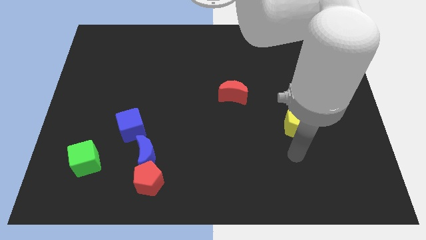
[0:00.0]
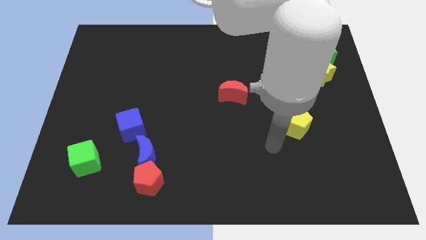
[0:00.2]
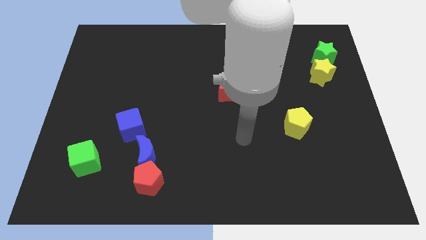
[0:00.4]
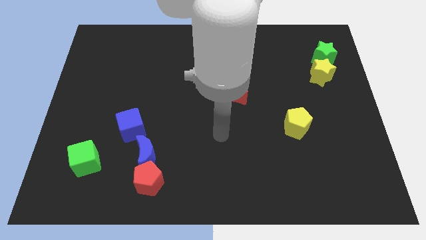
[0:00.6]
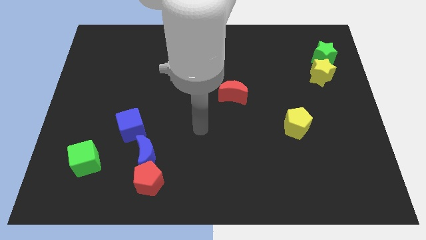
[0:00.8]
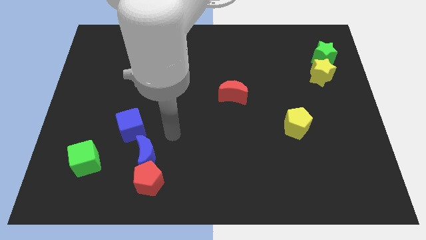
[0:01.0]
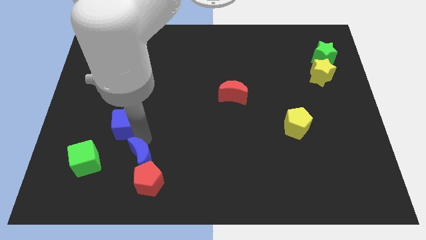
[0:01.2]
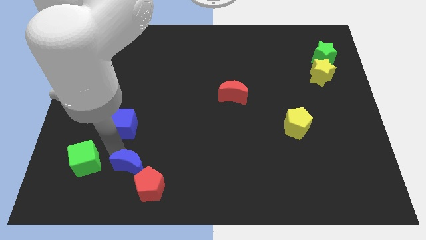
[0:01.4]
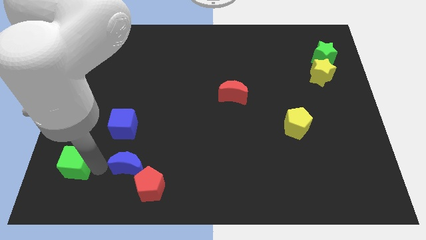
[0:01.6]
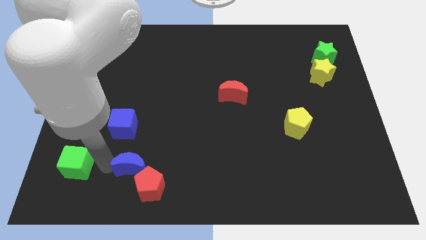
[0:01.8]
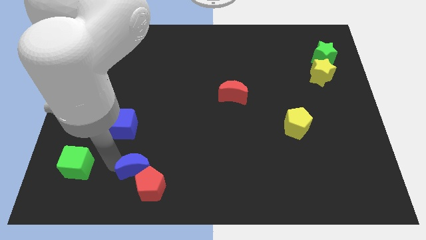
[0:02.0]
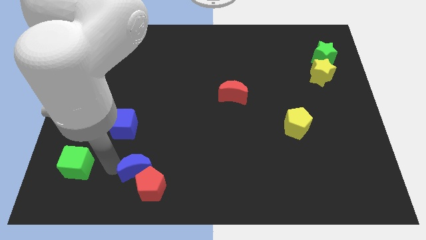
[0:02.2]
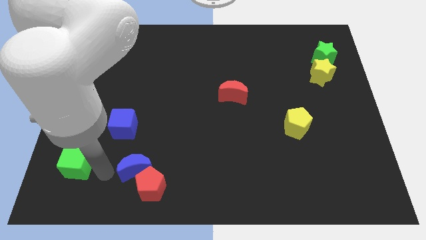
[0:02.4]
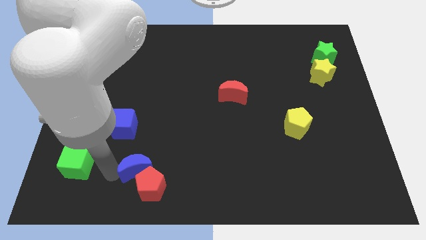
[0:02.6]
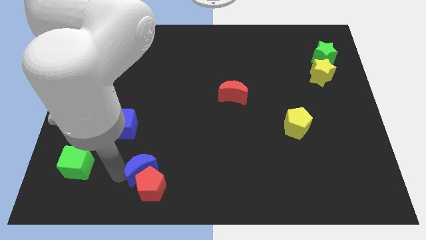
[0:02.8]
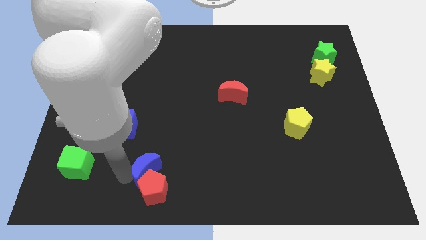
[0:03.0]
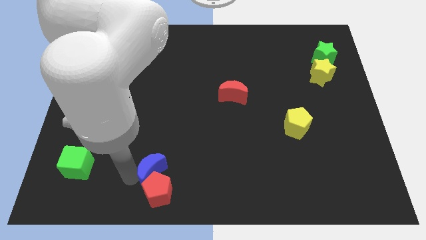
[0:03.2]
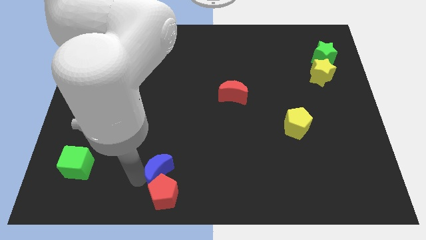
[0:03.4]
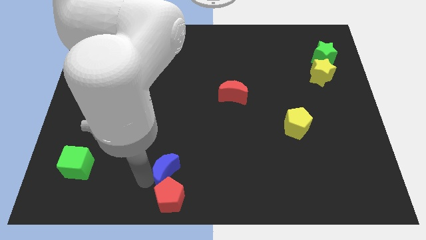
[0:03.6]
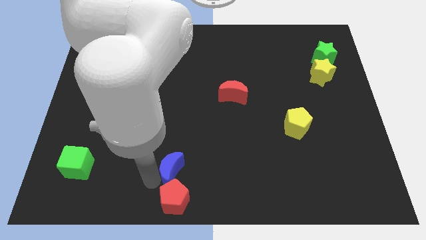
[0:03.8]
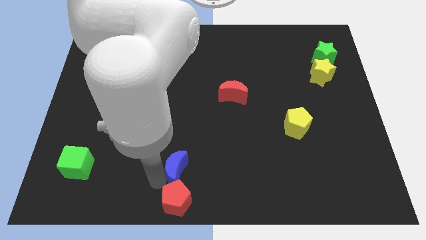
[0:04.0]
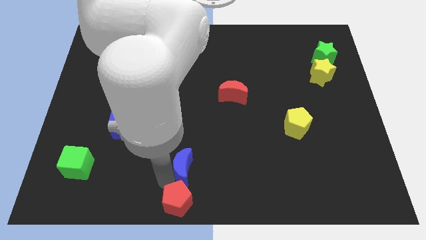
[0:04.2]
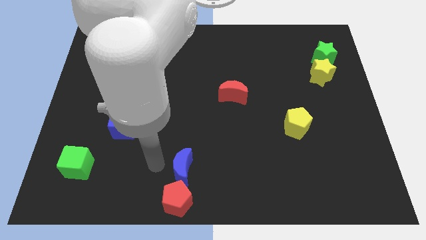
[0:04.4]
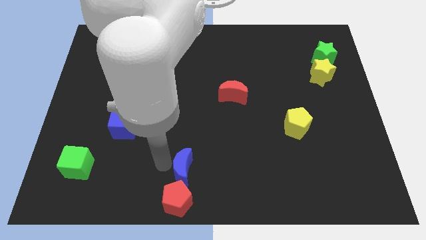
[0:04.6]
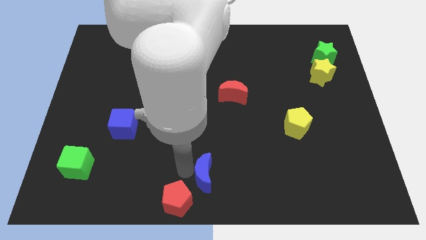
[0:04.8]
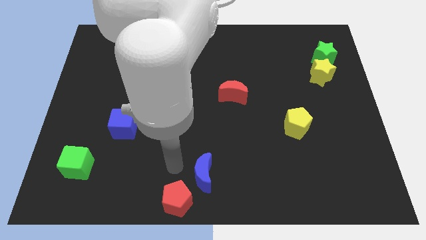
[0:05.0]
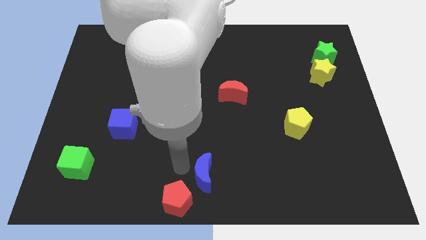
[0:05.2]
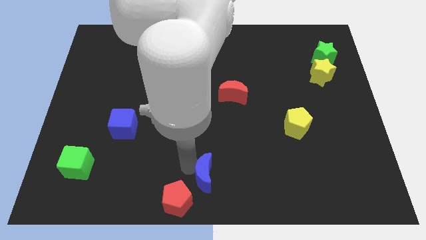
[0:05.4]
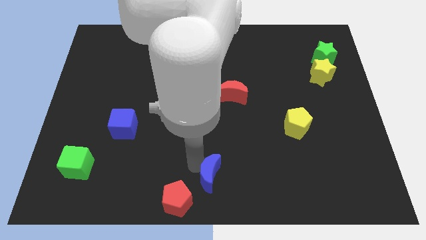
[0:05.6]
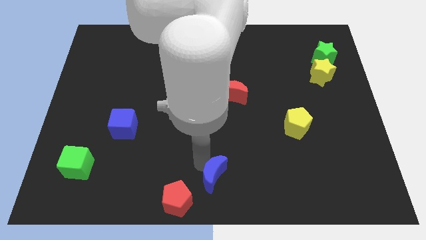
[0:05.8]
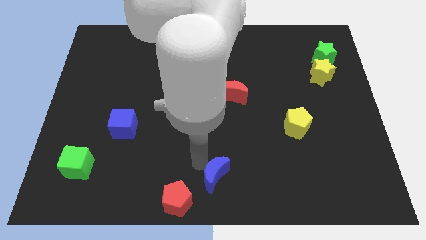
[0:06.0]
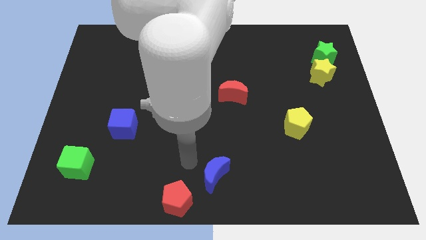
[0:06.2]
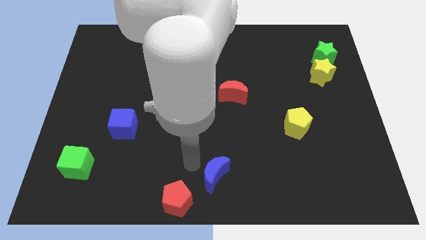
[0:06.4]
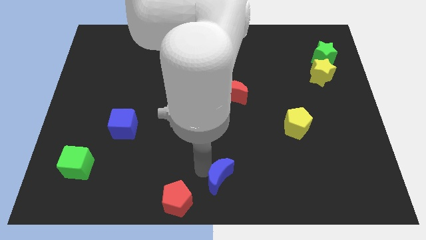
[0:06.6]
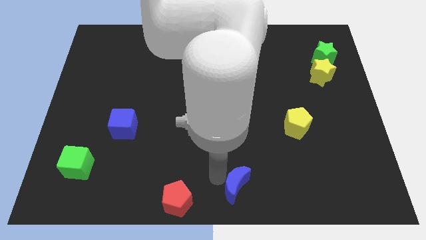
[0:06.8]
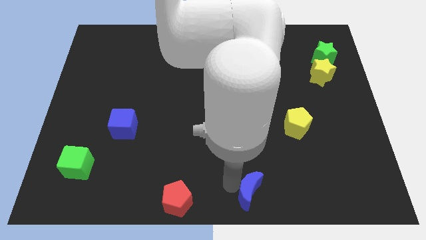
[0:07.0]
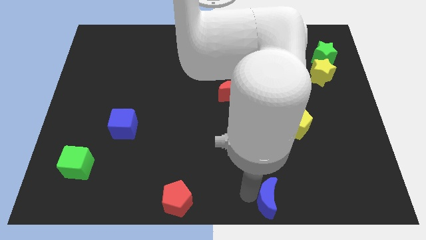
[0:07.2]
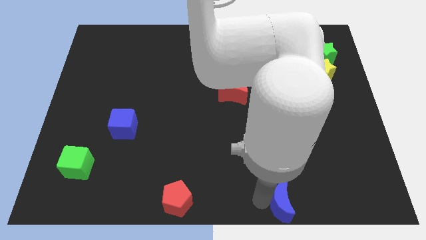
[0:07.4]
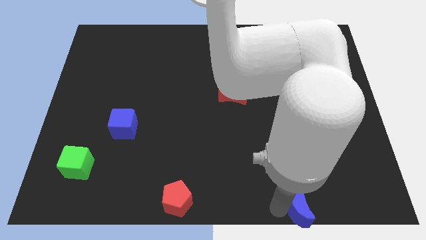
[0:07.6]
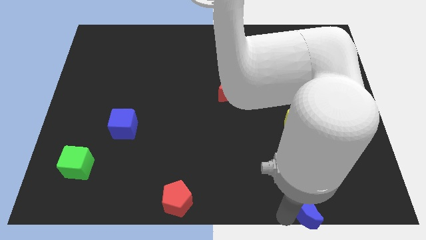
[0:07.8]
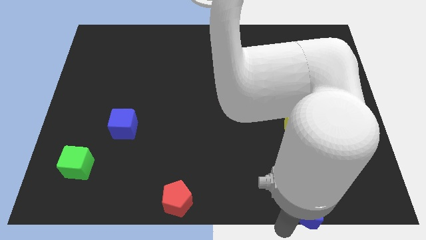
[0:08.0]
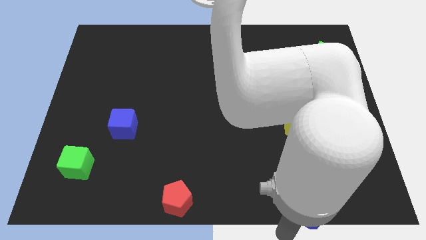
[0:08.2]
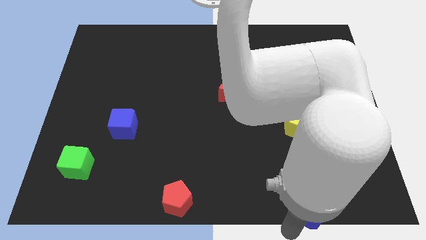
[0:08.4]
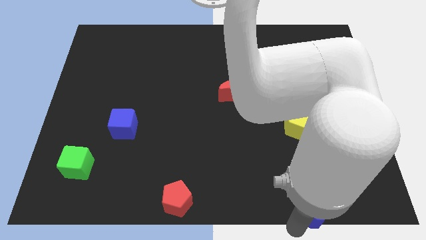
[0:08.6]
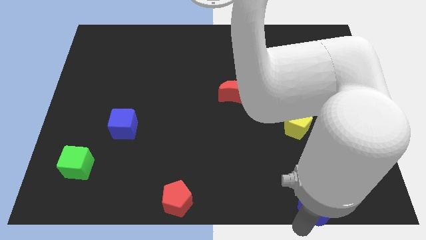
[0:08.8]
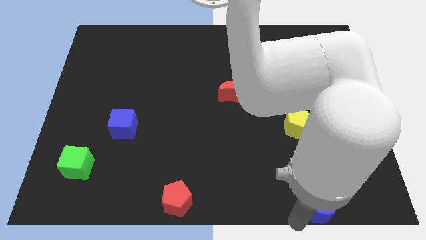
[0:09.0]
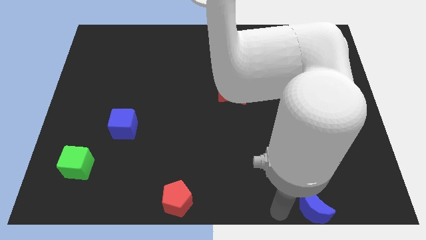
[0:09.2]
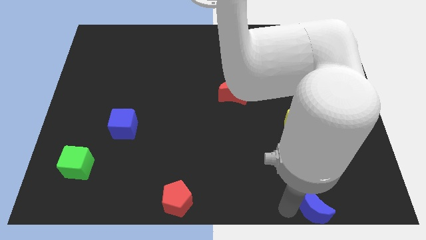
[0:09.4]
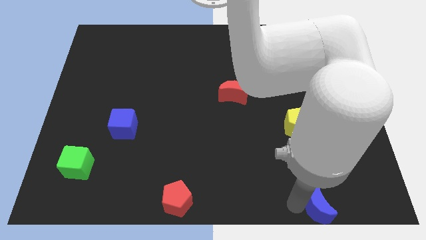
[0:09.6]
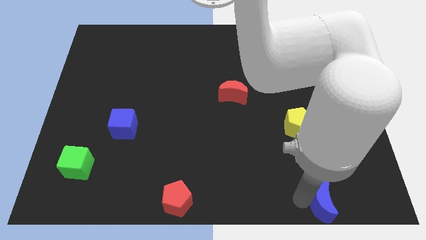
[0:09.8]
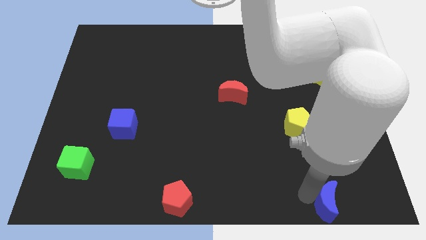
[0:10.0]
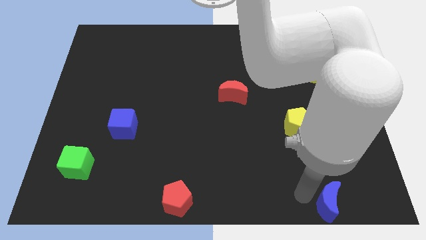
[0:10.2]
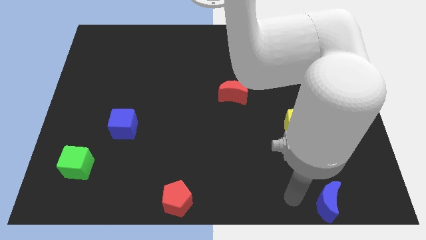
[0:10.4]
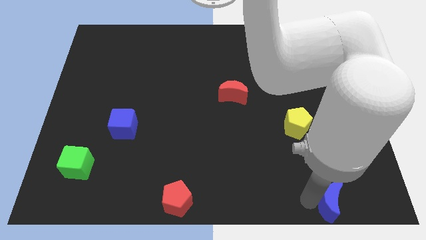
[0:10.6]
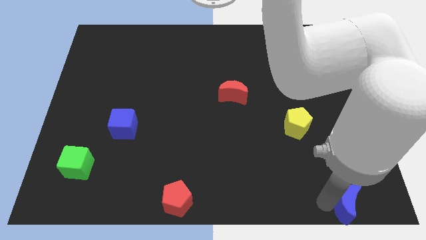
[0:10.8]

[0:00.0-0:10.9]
slide the blue moon to the lower right corner

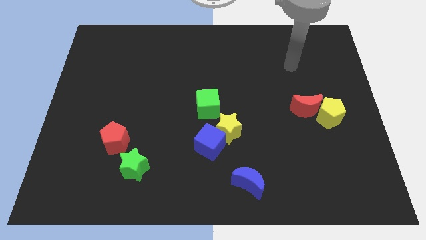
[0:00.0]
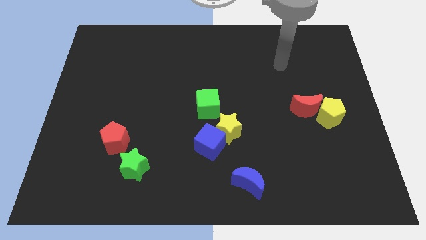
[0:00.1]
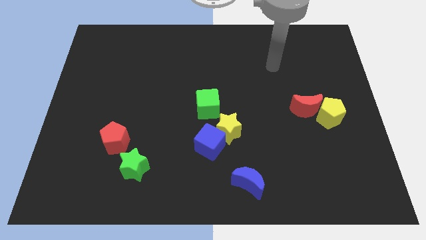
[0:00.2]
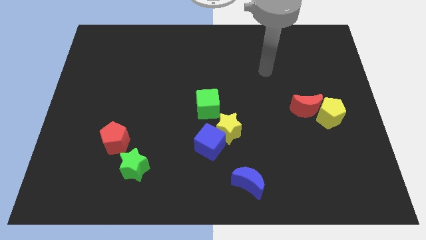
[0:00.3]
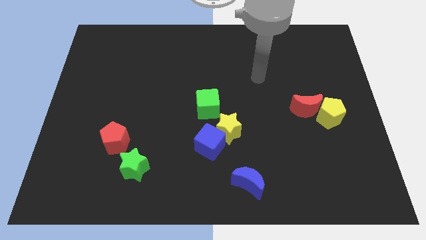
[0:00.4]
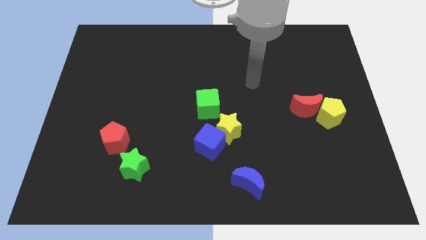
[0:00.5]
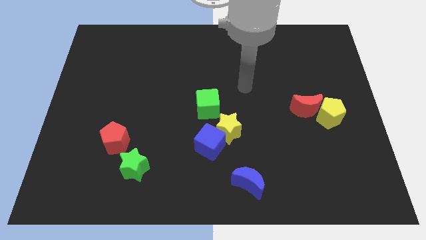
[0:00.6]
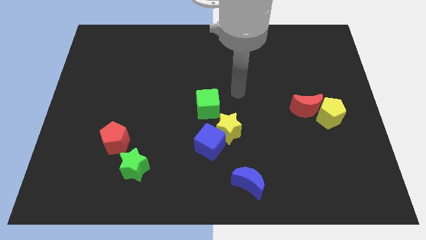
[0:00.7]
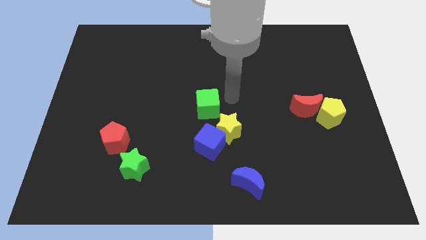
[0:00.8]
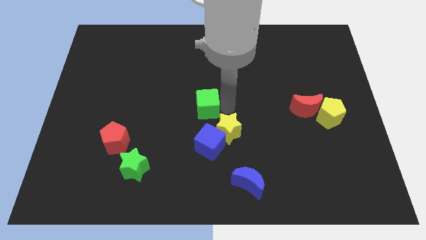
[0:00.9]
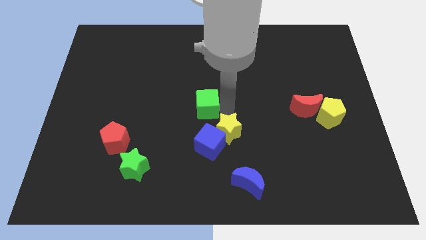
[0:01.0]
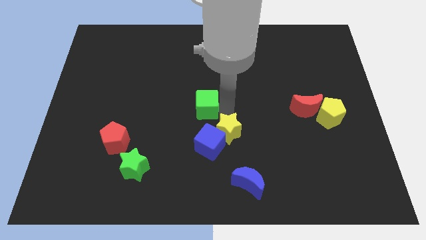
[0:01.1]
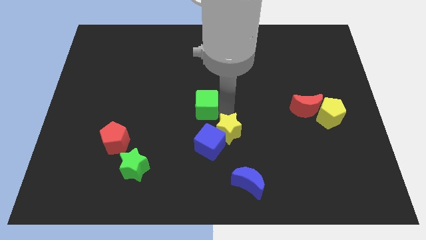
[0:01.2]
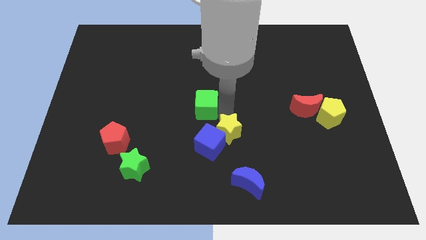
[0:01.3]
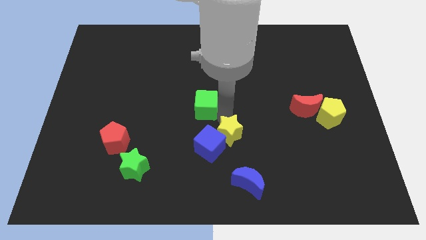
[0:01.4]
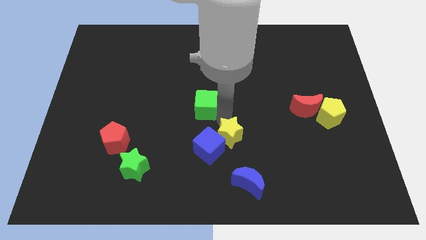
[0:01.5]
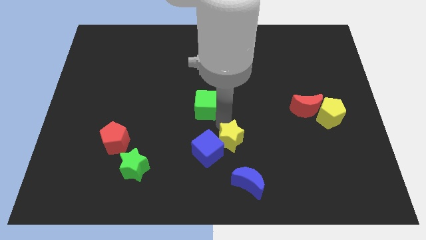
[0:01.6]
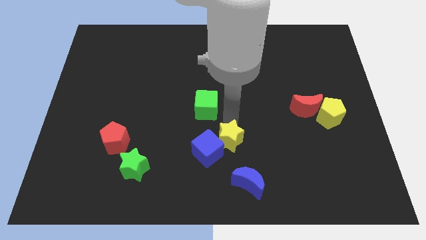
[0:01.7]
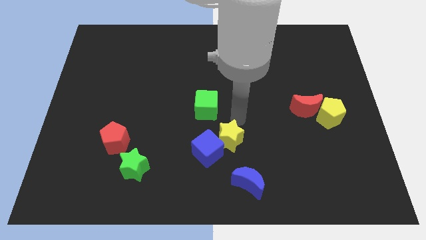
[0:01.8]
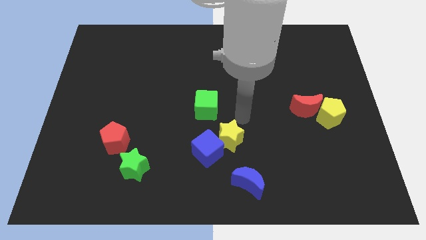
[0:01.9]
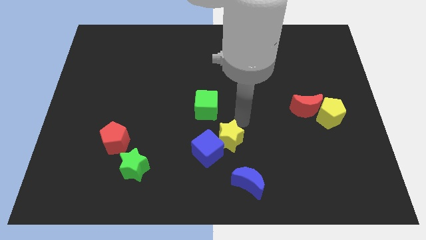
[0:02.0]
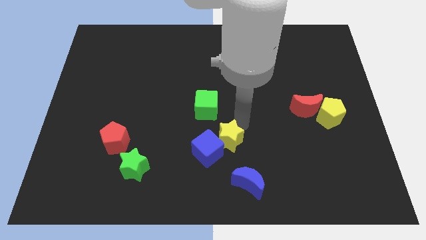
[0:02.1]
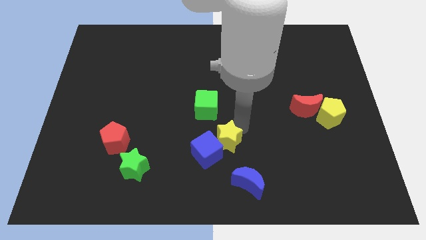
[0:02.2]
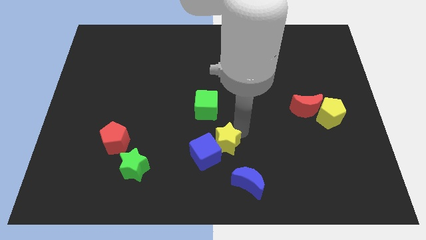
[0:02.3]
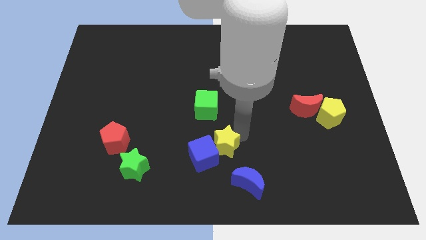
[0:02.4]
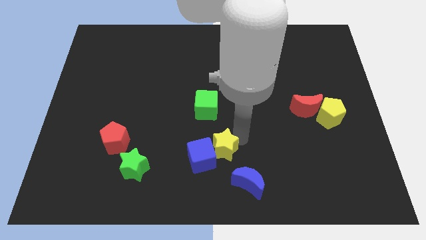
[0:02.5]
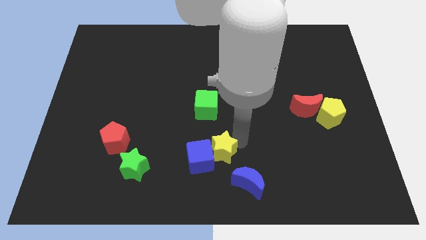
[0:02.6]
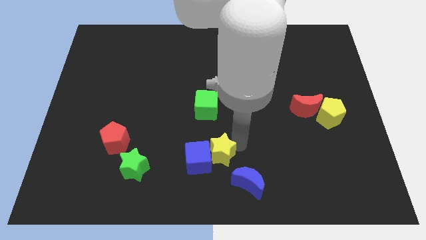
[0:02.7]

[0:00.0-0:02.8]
push the yellow star to the bottom side
